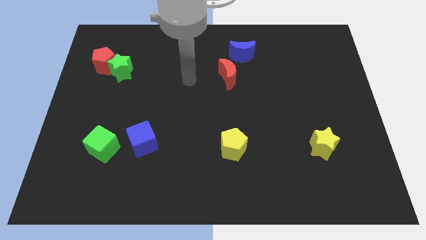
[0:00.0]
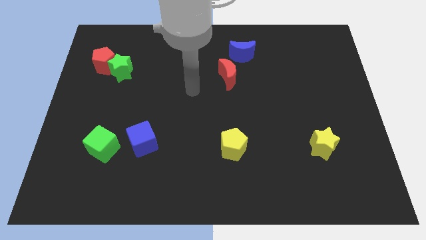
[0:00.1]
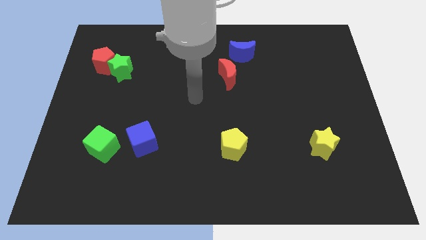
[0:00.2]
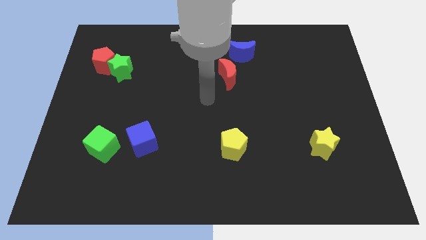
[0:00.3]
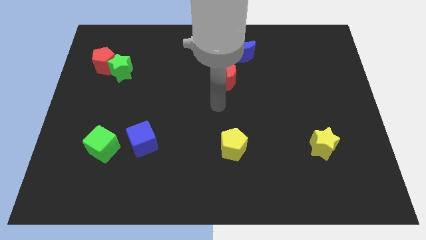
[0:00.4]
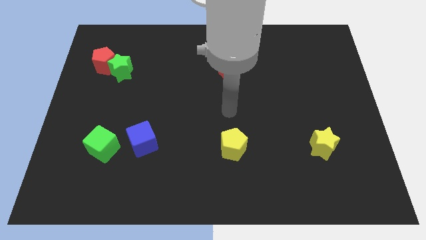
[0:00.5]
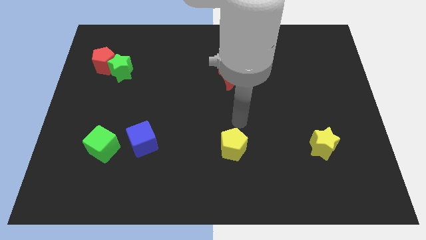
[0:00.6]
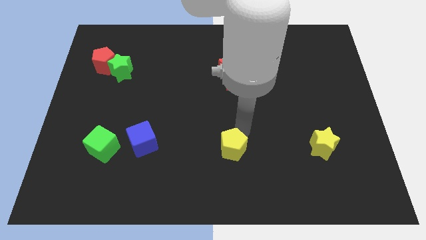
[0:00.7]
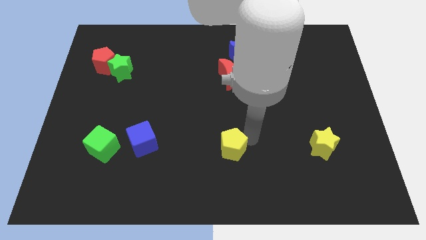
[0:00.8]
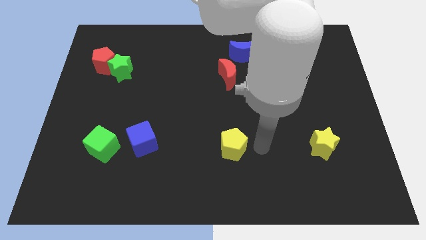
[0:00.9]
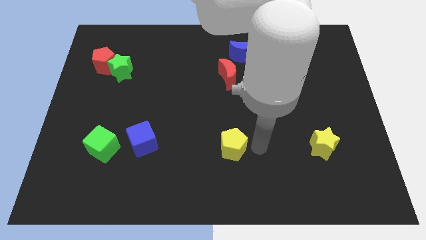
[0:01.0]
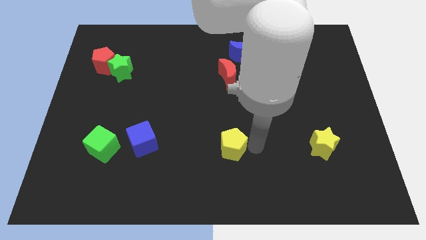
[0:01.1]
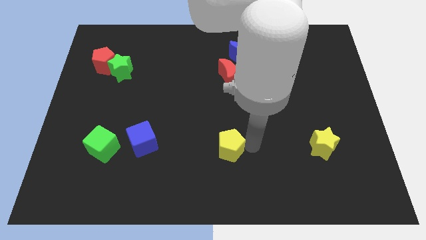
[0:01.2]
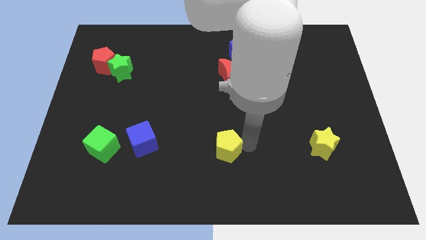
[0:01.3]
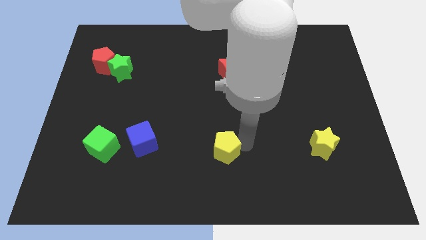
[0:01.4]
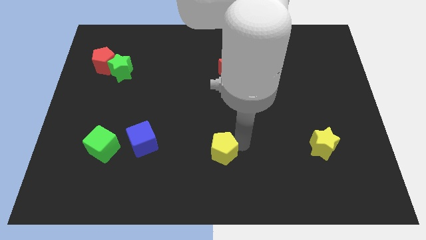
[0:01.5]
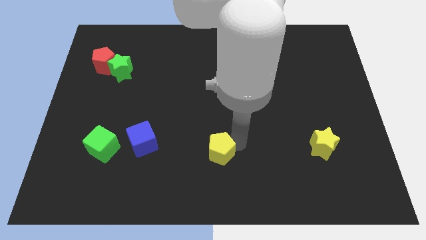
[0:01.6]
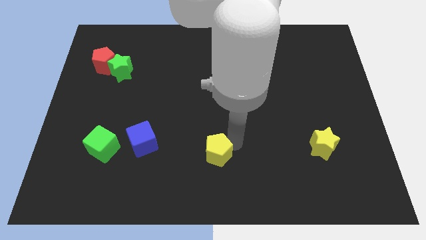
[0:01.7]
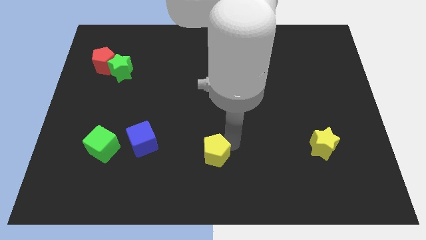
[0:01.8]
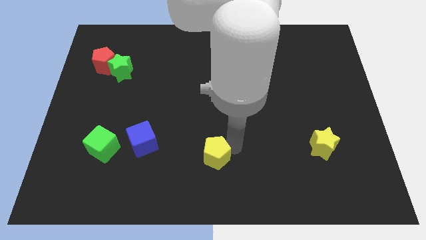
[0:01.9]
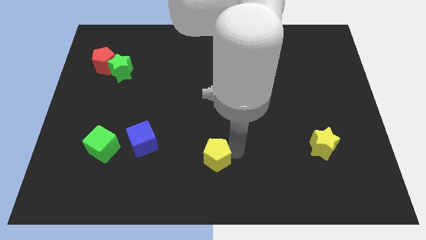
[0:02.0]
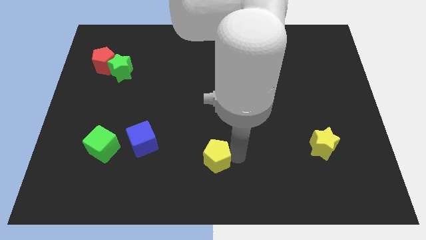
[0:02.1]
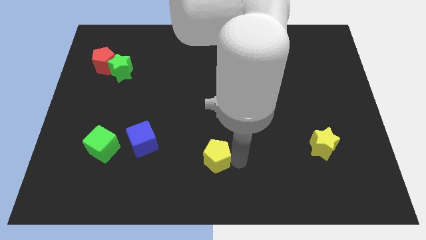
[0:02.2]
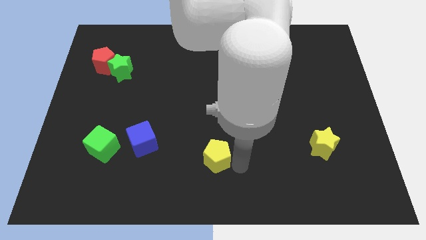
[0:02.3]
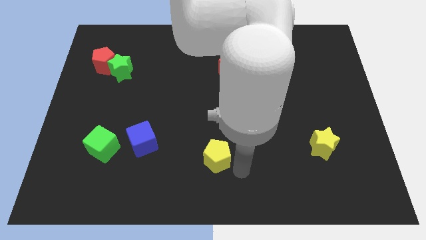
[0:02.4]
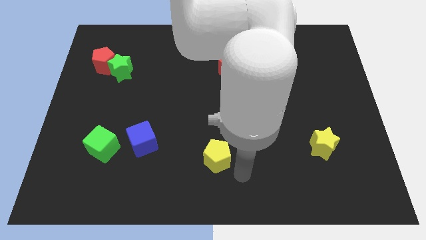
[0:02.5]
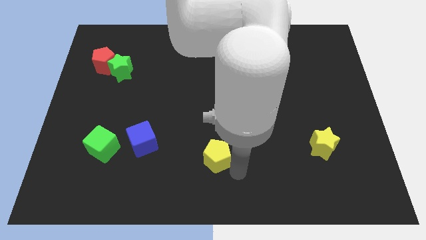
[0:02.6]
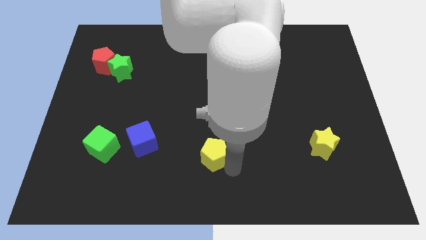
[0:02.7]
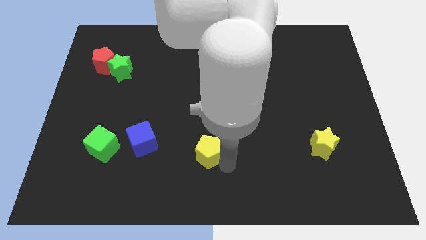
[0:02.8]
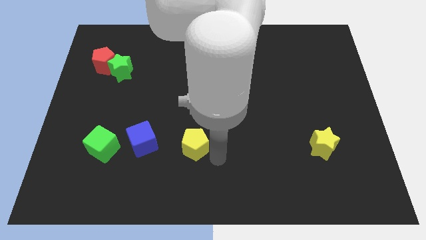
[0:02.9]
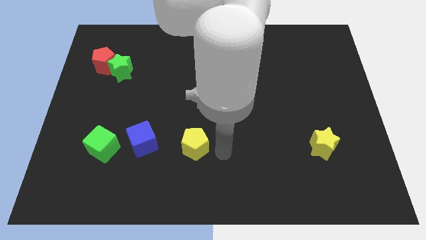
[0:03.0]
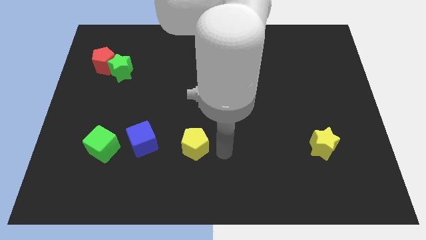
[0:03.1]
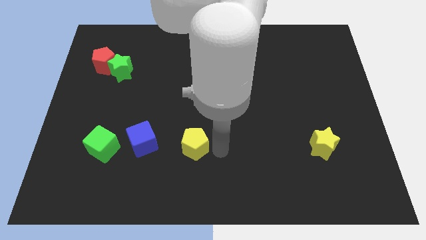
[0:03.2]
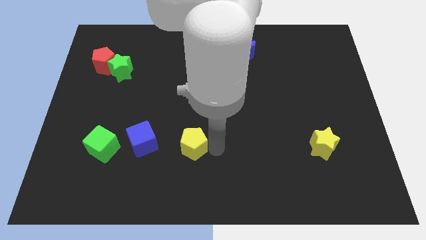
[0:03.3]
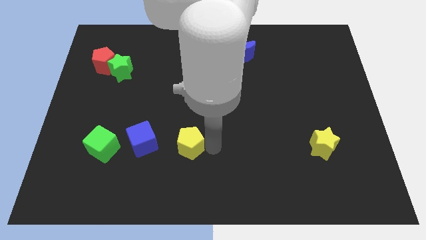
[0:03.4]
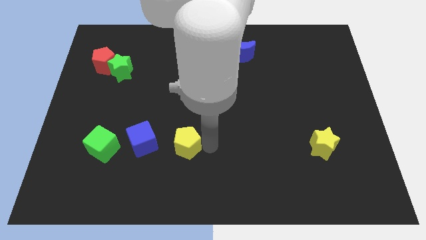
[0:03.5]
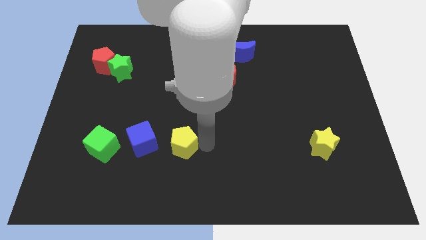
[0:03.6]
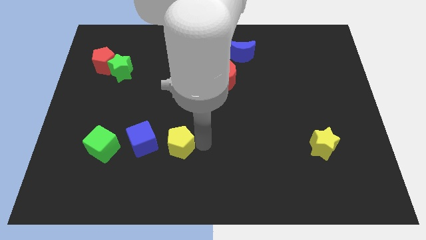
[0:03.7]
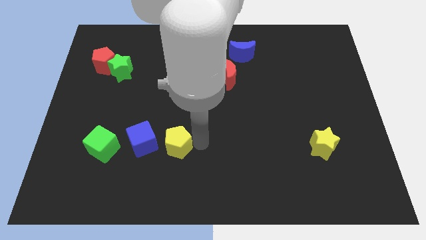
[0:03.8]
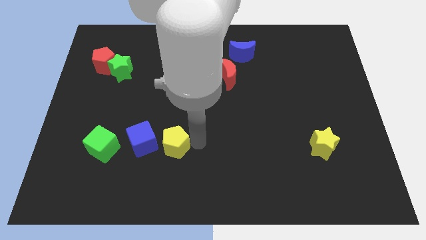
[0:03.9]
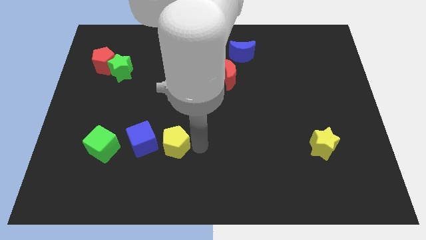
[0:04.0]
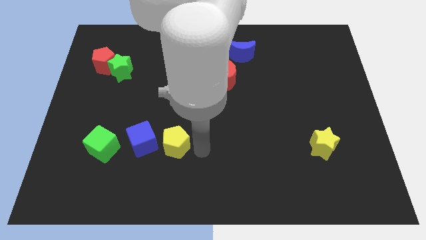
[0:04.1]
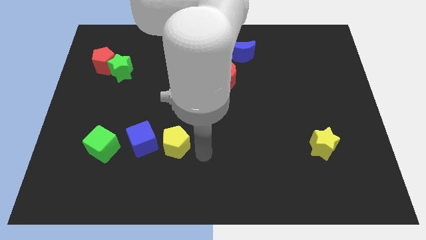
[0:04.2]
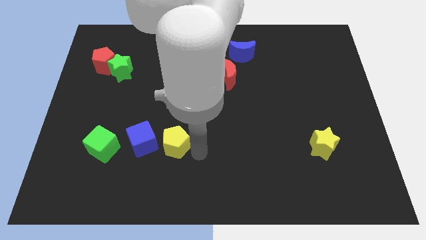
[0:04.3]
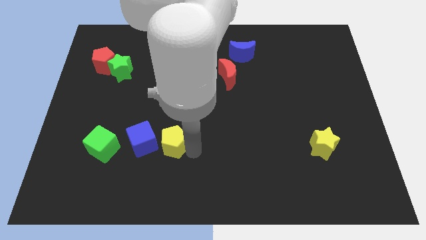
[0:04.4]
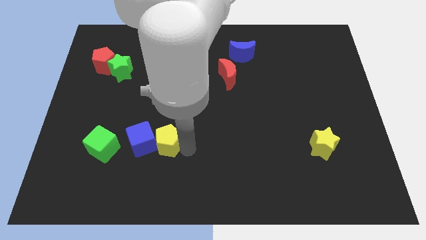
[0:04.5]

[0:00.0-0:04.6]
slide the yellow pentagon to the blue cube

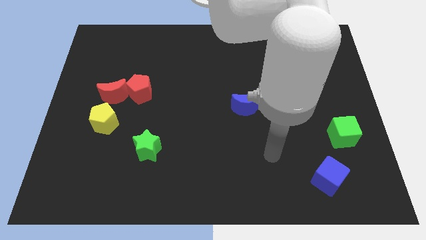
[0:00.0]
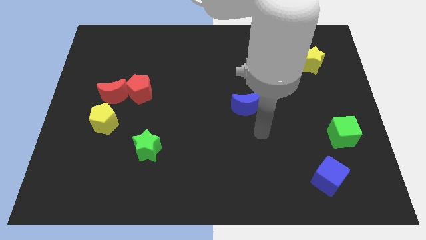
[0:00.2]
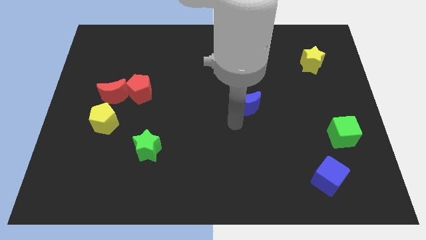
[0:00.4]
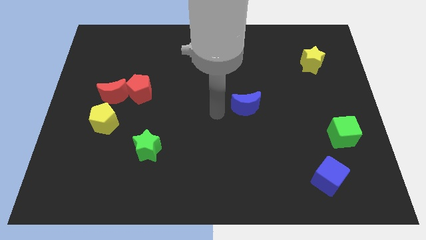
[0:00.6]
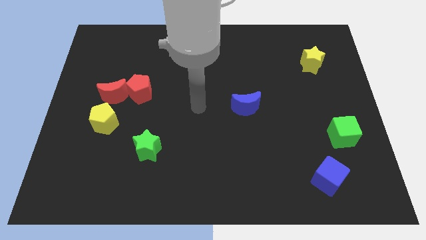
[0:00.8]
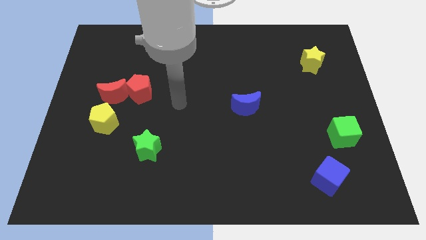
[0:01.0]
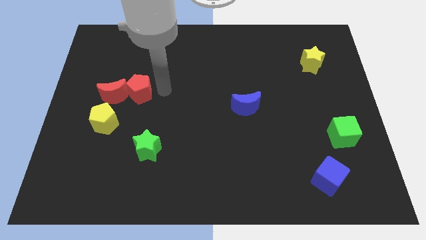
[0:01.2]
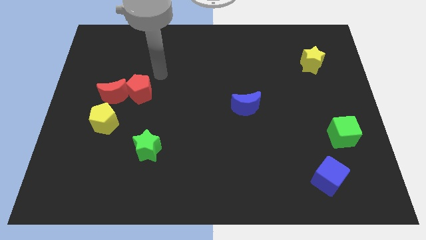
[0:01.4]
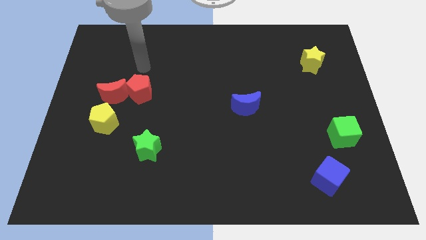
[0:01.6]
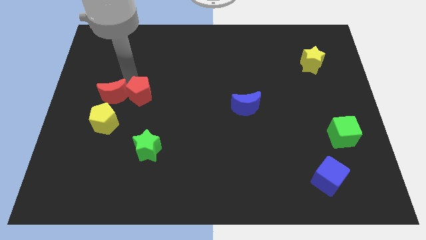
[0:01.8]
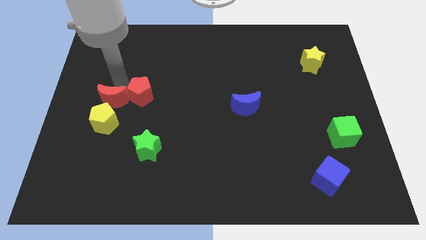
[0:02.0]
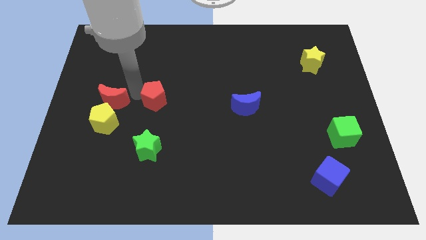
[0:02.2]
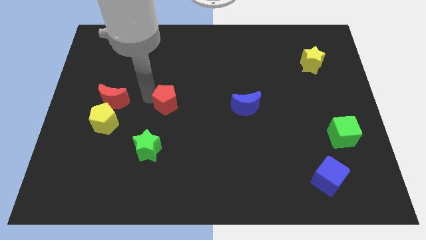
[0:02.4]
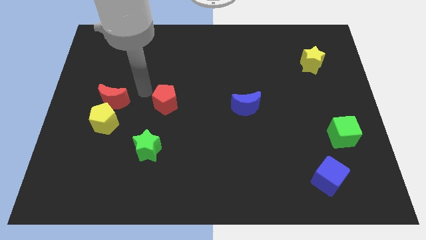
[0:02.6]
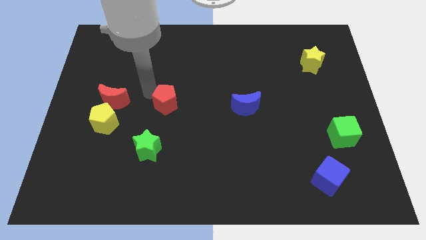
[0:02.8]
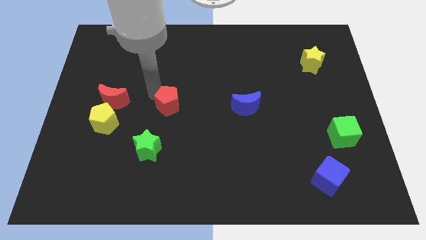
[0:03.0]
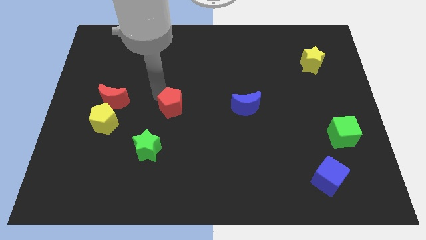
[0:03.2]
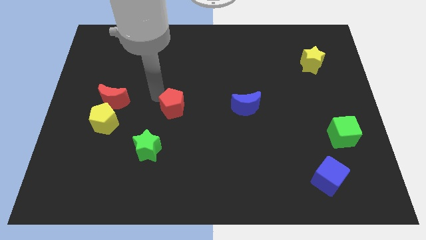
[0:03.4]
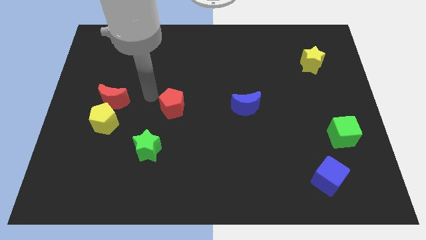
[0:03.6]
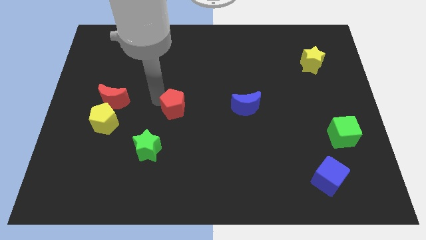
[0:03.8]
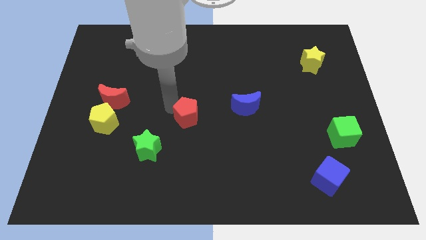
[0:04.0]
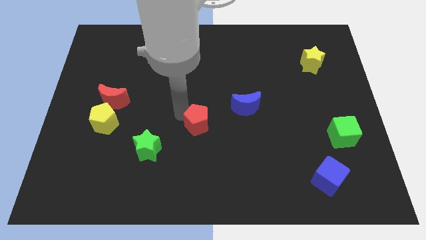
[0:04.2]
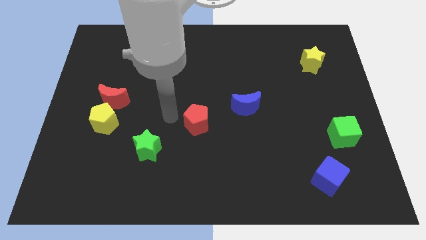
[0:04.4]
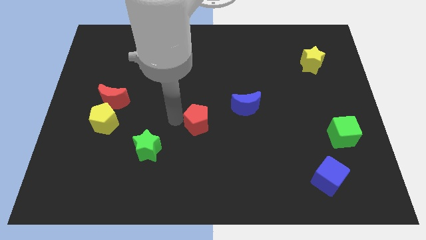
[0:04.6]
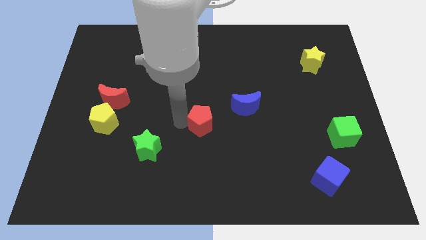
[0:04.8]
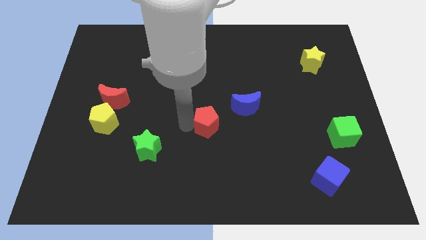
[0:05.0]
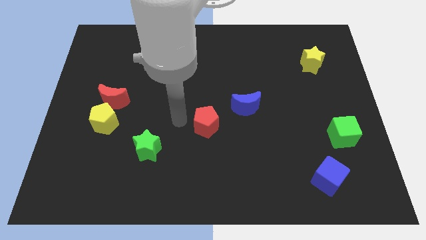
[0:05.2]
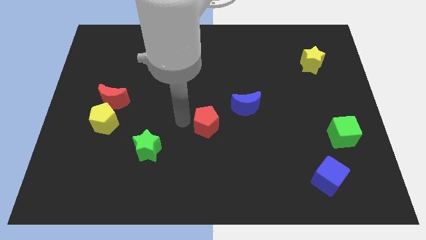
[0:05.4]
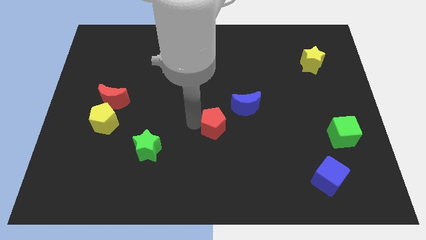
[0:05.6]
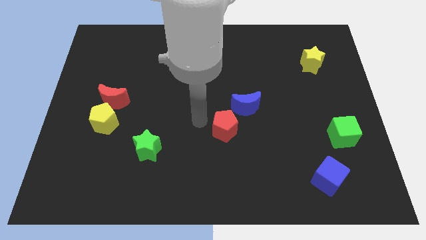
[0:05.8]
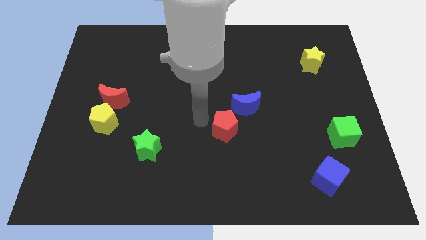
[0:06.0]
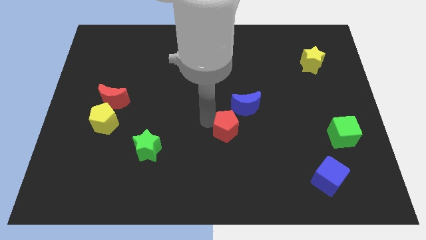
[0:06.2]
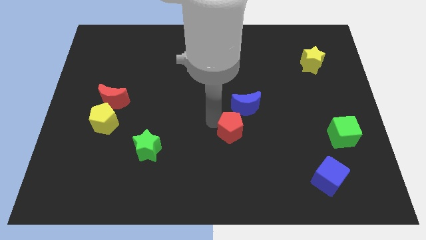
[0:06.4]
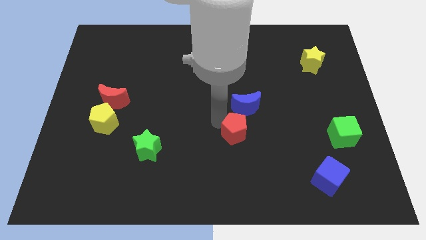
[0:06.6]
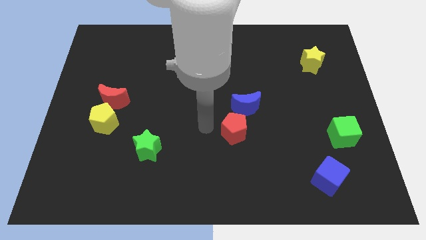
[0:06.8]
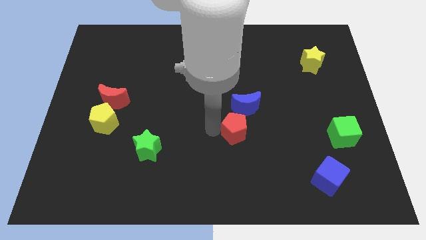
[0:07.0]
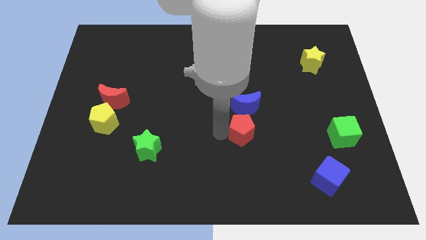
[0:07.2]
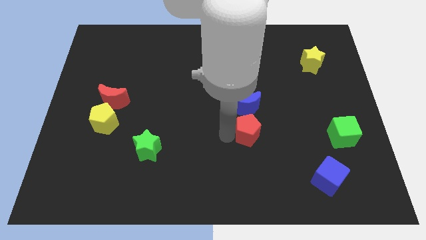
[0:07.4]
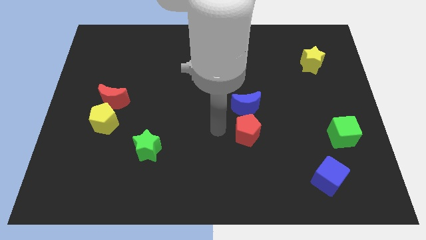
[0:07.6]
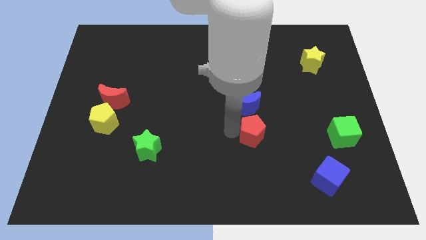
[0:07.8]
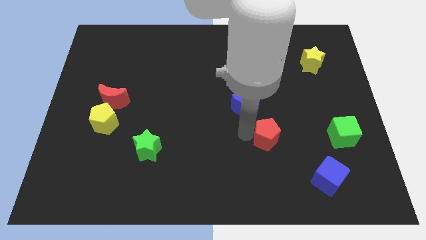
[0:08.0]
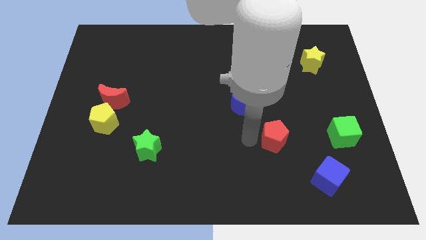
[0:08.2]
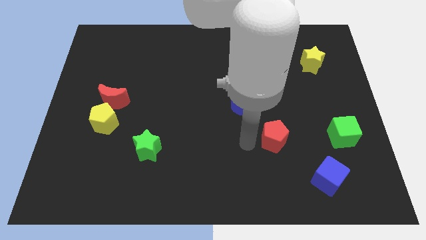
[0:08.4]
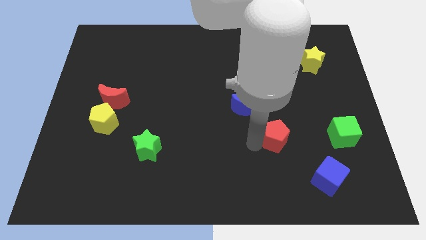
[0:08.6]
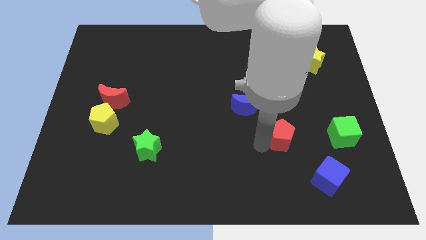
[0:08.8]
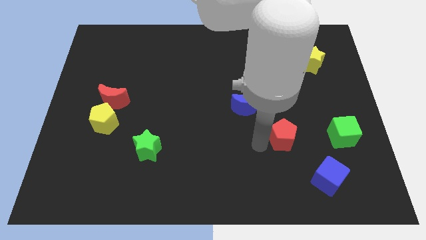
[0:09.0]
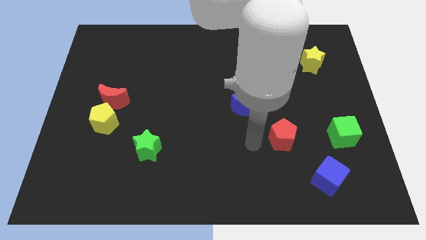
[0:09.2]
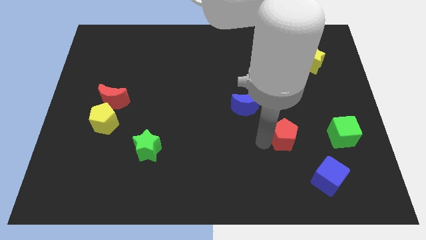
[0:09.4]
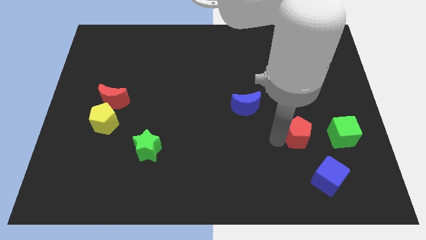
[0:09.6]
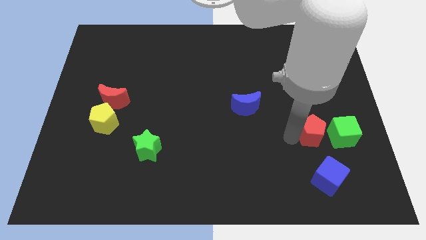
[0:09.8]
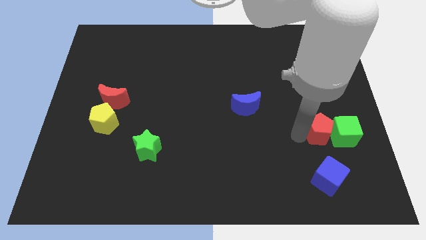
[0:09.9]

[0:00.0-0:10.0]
move the red pentagon to the green cube
